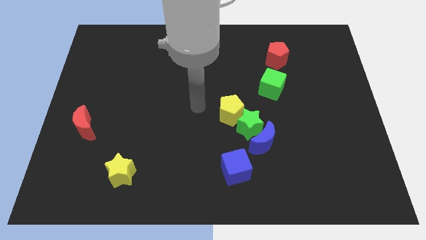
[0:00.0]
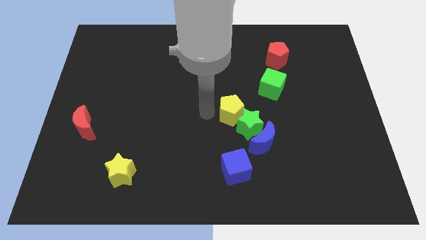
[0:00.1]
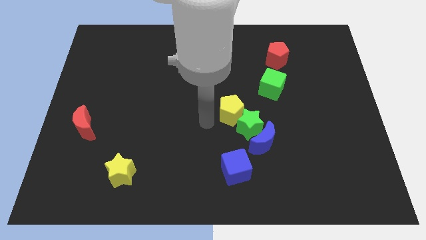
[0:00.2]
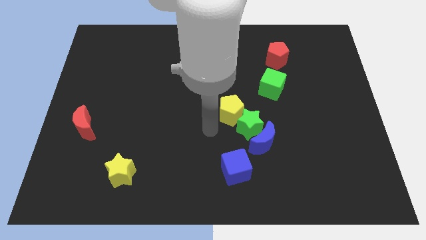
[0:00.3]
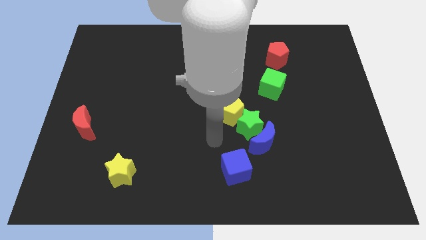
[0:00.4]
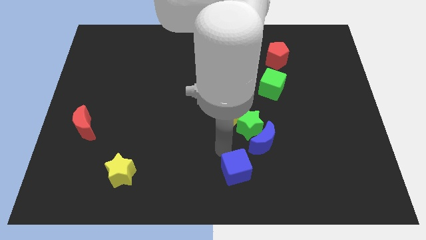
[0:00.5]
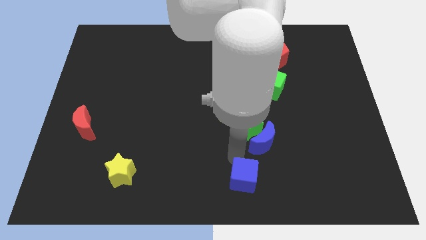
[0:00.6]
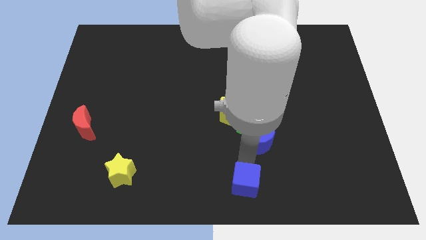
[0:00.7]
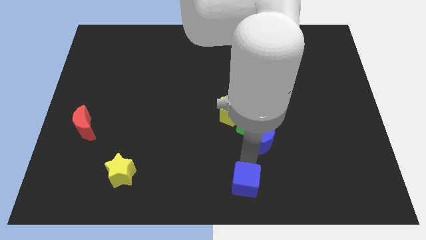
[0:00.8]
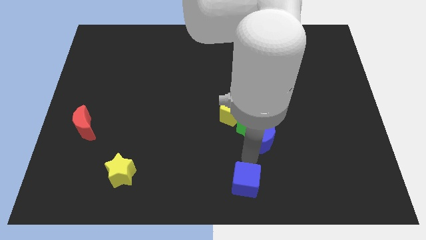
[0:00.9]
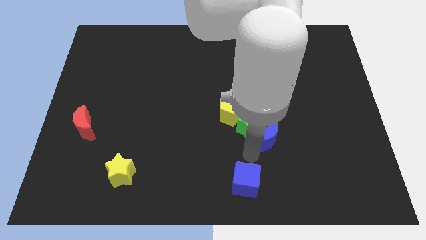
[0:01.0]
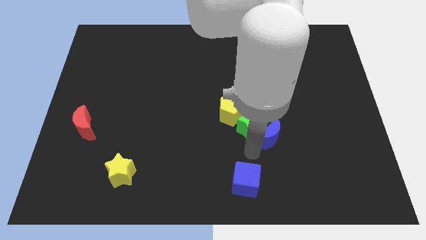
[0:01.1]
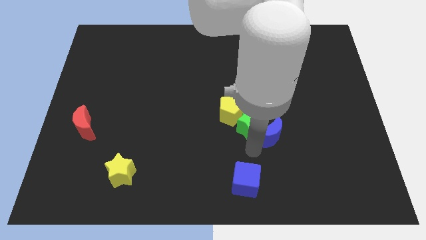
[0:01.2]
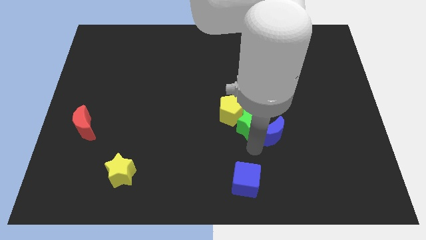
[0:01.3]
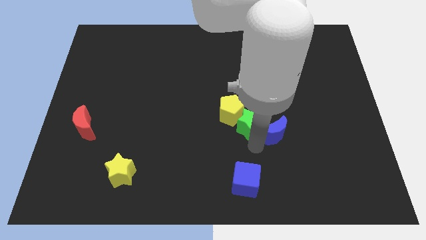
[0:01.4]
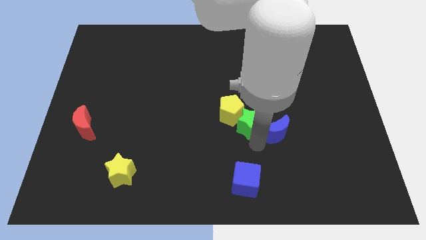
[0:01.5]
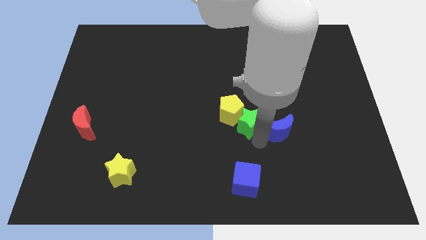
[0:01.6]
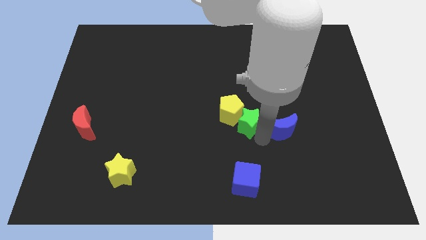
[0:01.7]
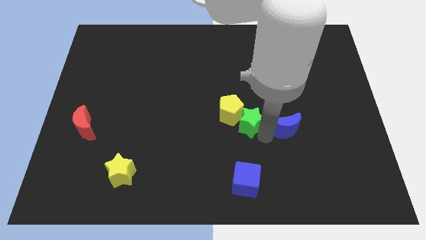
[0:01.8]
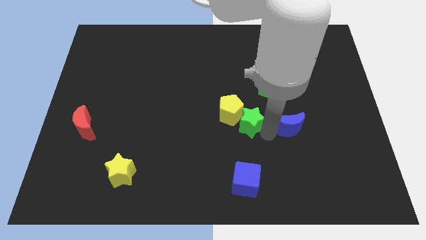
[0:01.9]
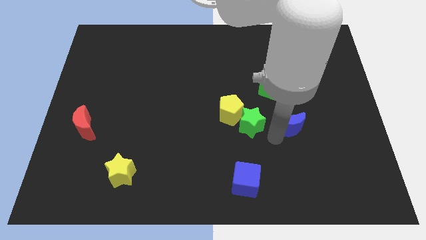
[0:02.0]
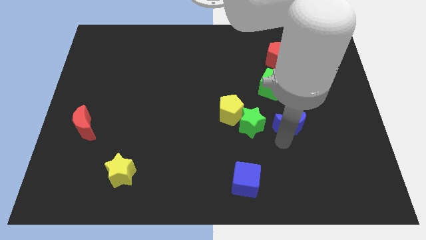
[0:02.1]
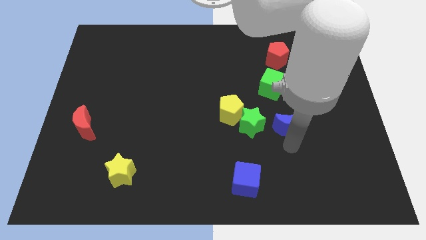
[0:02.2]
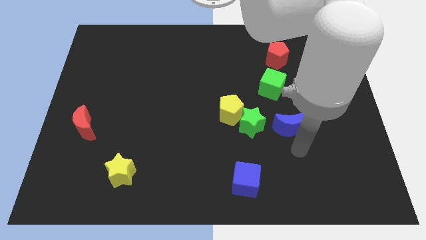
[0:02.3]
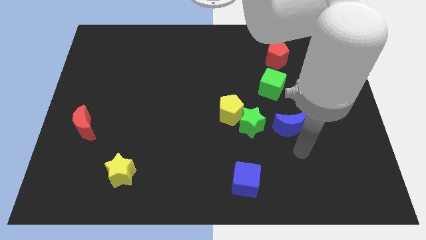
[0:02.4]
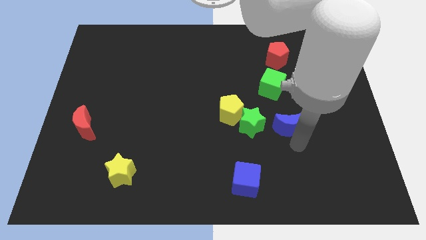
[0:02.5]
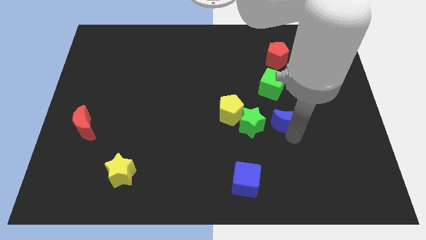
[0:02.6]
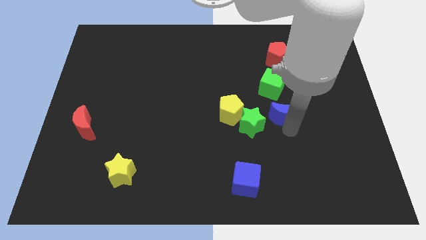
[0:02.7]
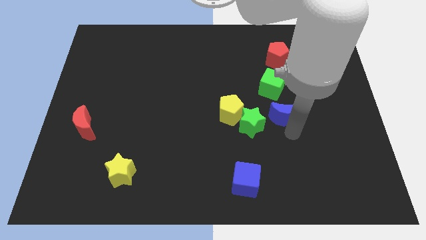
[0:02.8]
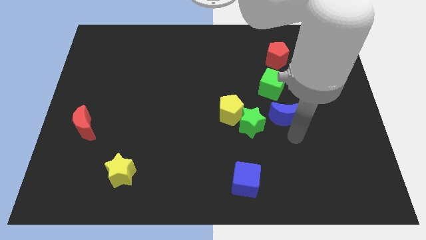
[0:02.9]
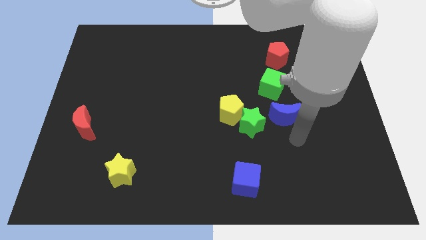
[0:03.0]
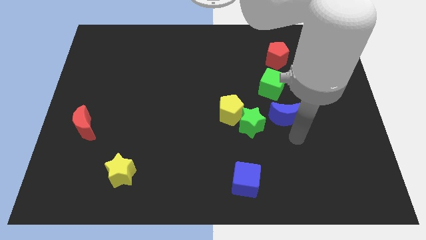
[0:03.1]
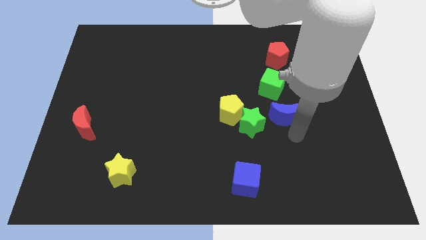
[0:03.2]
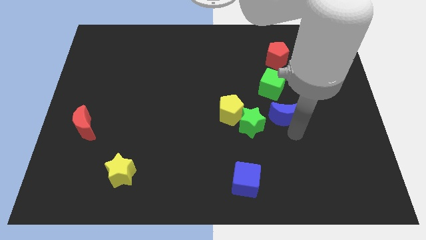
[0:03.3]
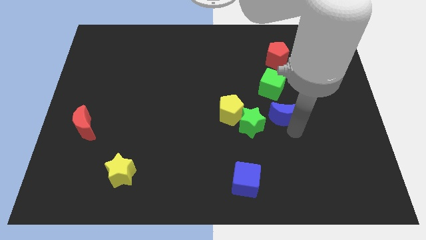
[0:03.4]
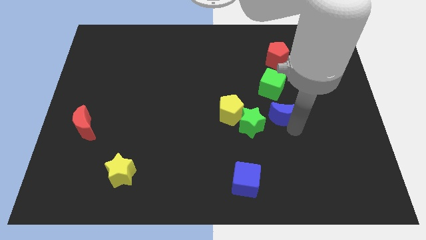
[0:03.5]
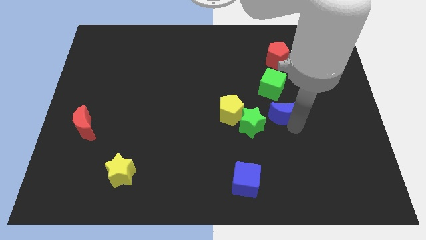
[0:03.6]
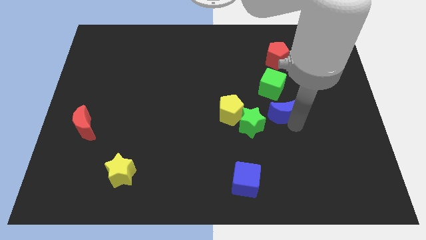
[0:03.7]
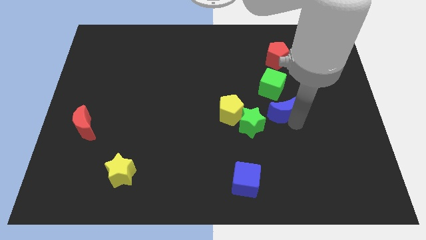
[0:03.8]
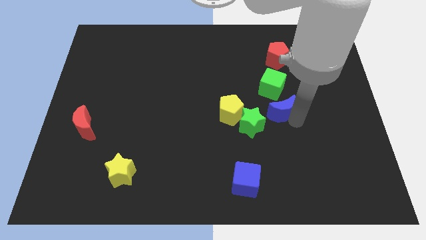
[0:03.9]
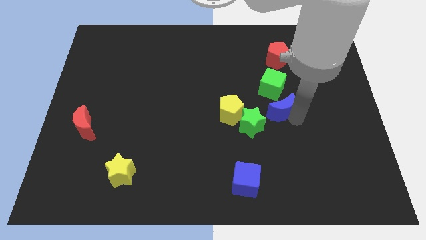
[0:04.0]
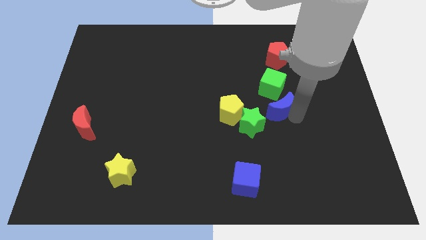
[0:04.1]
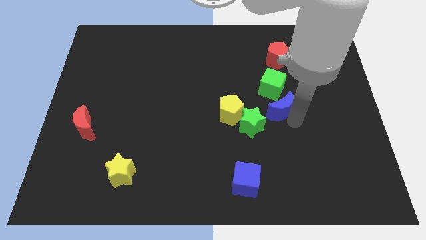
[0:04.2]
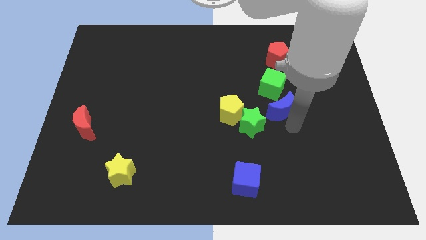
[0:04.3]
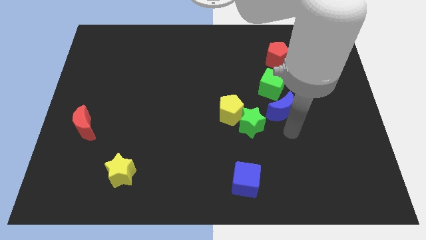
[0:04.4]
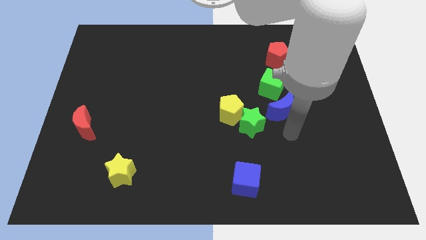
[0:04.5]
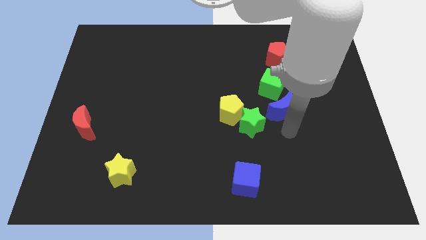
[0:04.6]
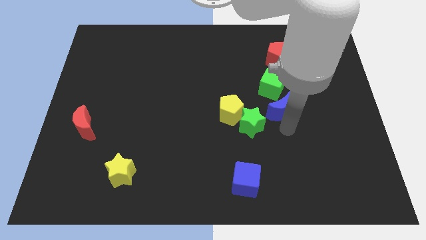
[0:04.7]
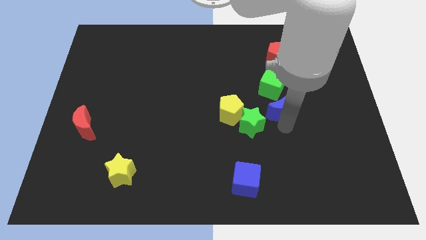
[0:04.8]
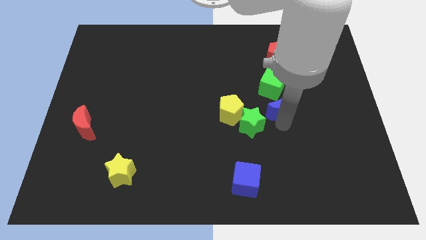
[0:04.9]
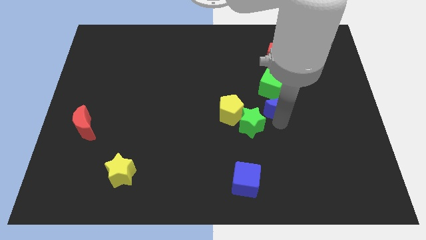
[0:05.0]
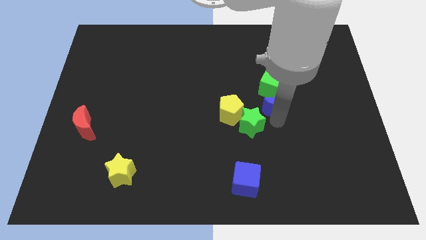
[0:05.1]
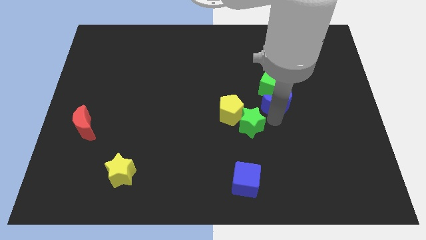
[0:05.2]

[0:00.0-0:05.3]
move the blue moon close to the green cube

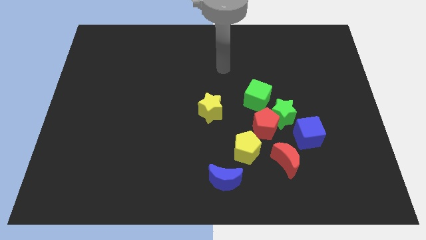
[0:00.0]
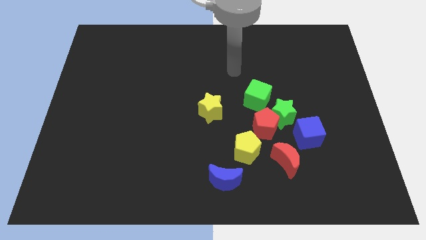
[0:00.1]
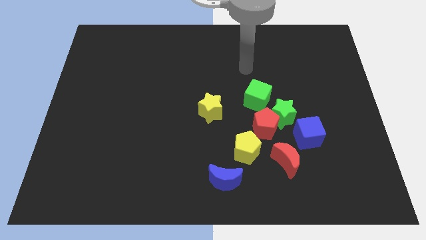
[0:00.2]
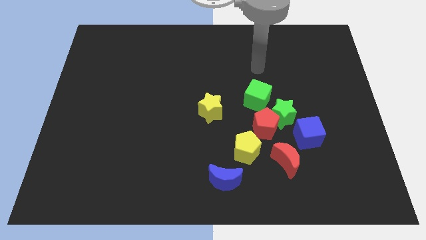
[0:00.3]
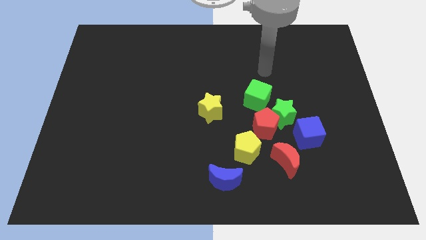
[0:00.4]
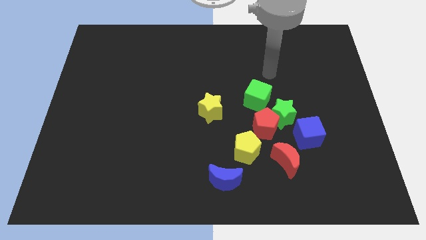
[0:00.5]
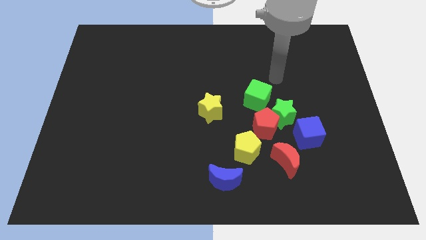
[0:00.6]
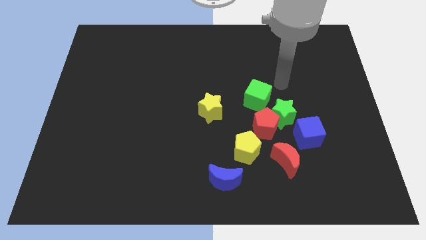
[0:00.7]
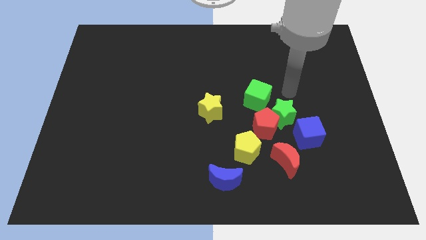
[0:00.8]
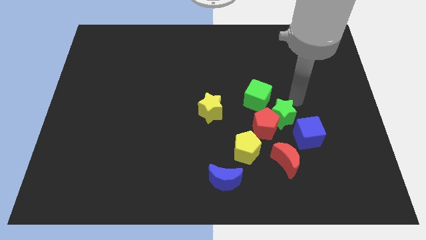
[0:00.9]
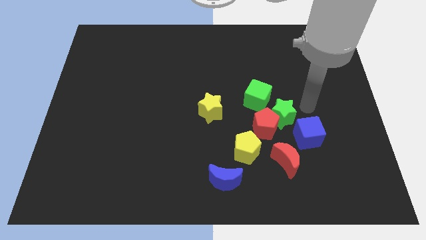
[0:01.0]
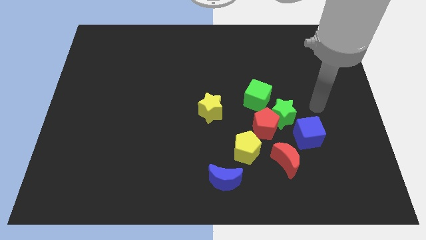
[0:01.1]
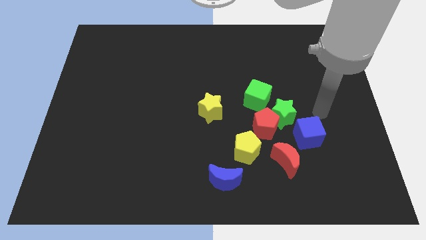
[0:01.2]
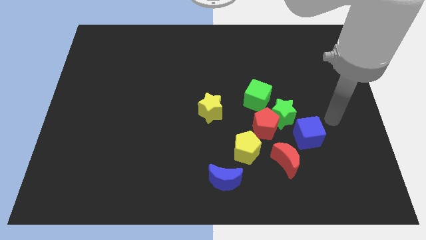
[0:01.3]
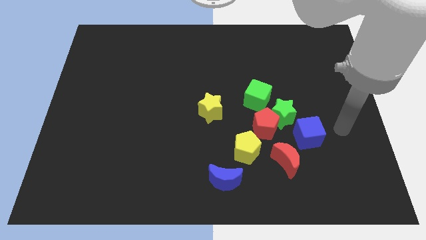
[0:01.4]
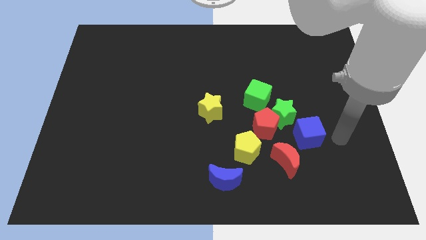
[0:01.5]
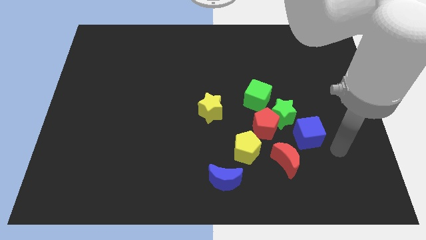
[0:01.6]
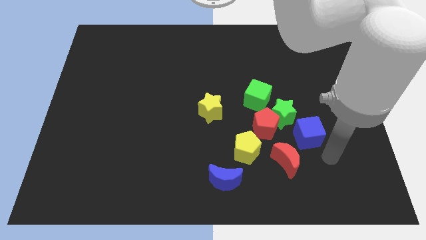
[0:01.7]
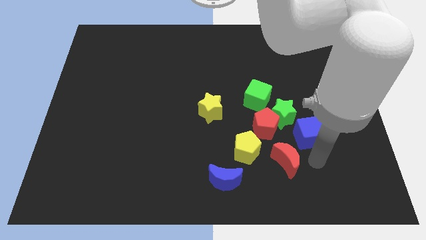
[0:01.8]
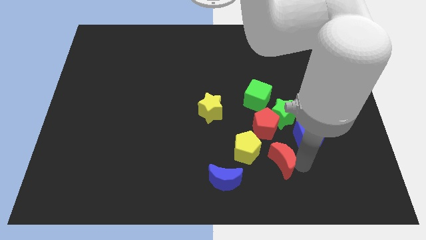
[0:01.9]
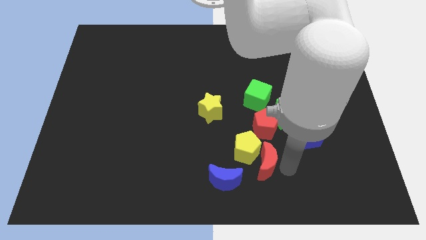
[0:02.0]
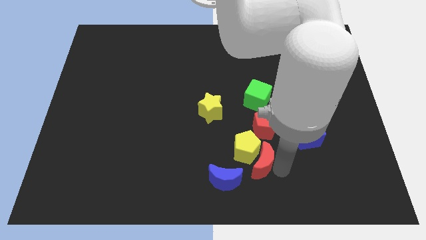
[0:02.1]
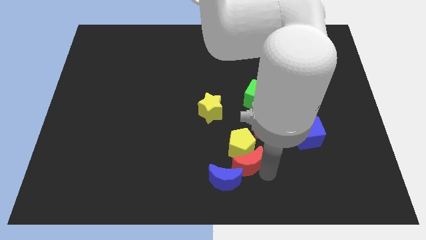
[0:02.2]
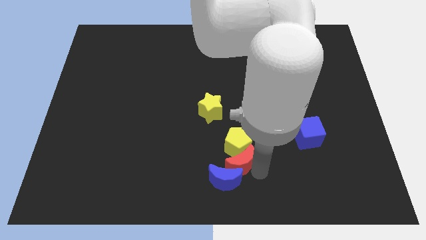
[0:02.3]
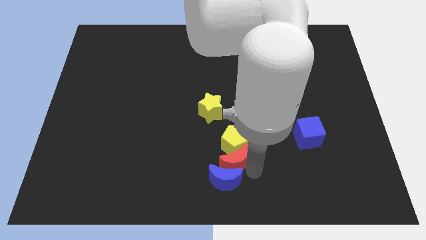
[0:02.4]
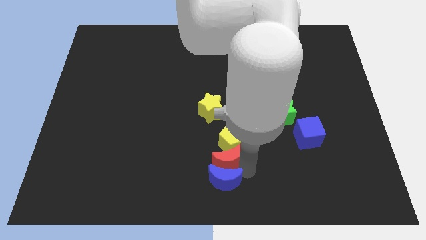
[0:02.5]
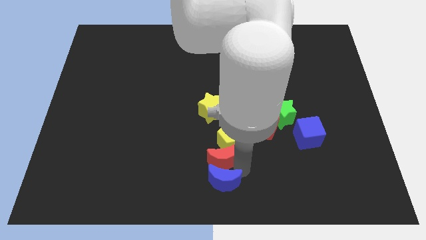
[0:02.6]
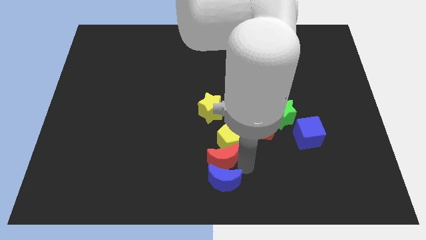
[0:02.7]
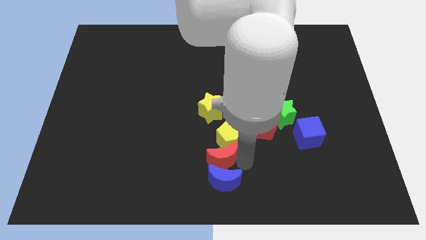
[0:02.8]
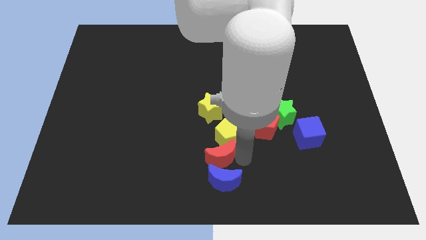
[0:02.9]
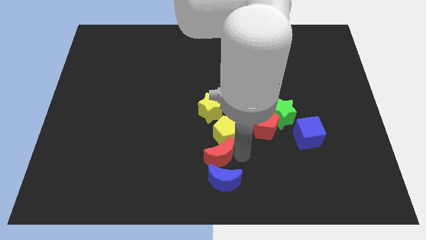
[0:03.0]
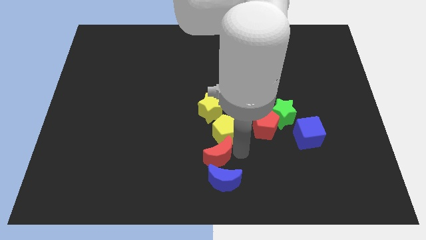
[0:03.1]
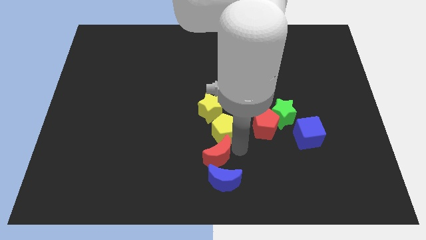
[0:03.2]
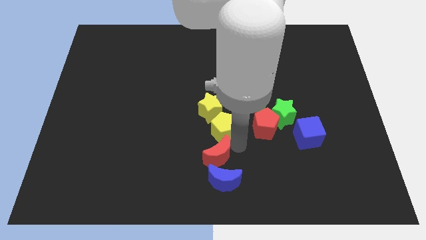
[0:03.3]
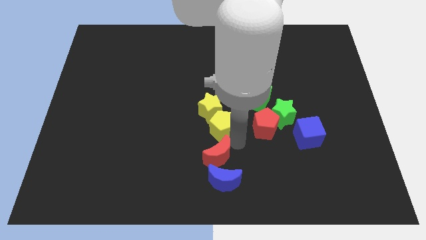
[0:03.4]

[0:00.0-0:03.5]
push the yellow pentagon close to the yellow star
